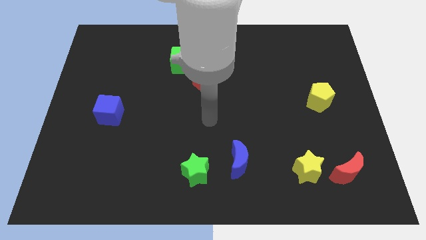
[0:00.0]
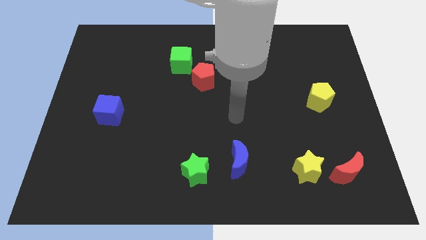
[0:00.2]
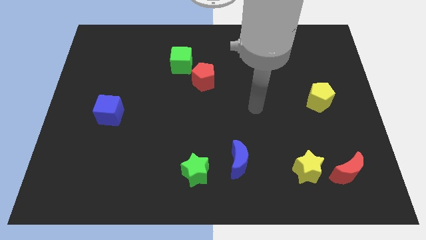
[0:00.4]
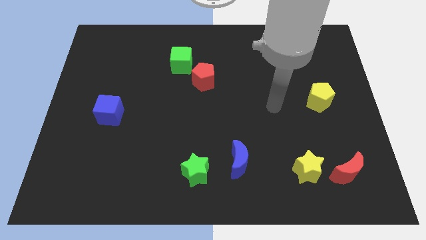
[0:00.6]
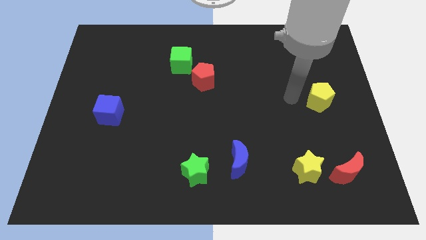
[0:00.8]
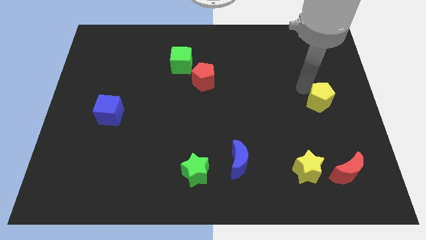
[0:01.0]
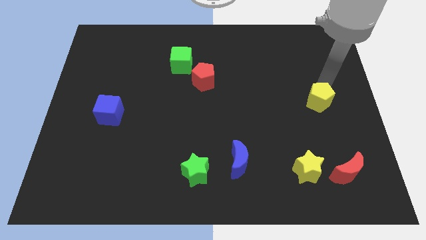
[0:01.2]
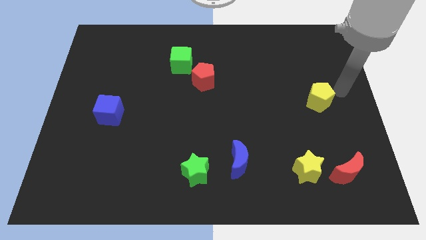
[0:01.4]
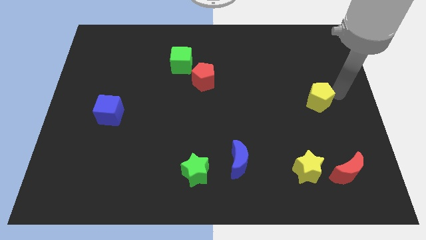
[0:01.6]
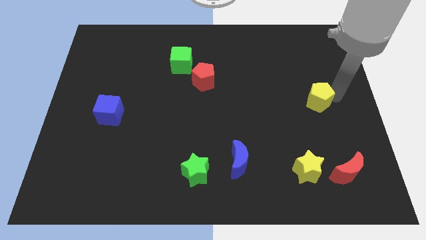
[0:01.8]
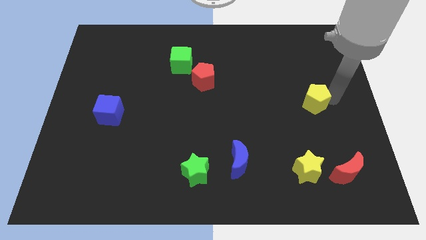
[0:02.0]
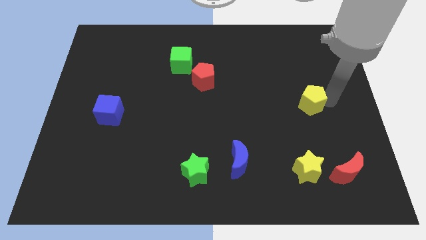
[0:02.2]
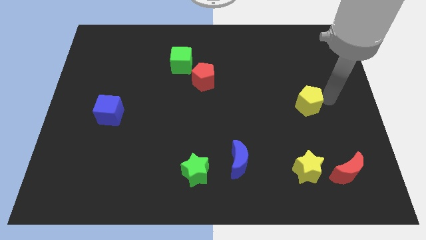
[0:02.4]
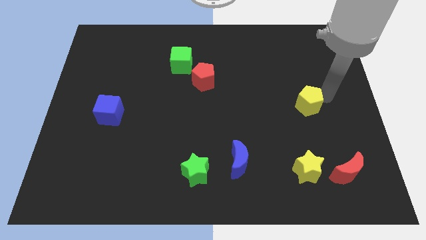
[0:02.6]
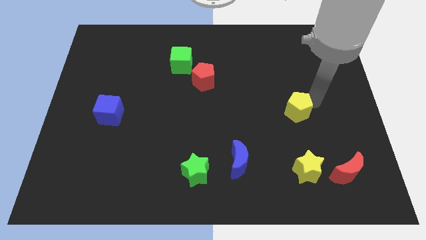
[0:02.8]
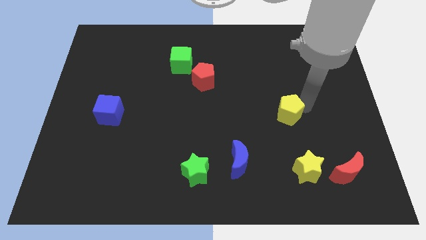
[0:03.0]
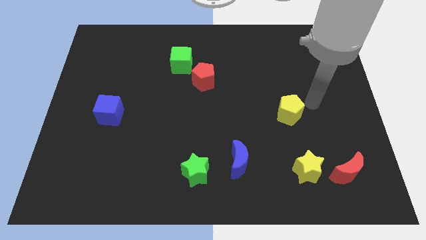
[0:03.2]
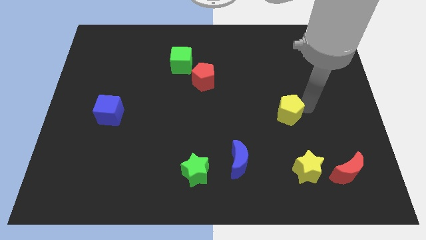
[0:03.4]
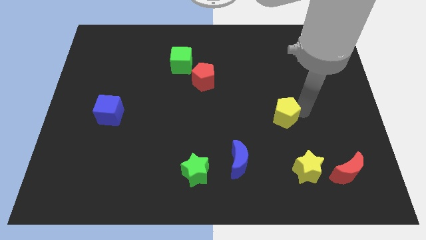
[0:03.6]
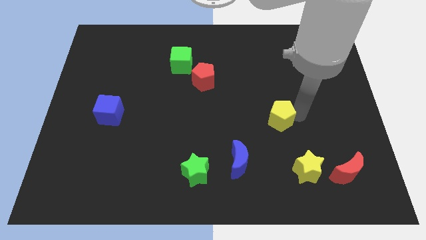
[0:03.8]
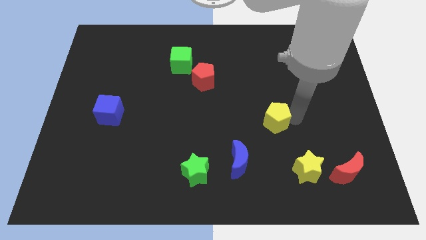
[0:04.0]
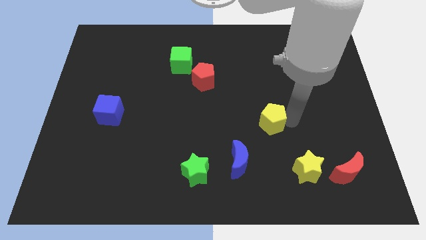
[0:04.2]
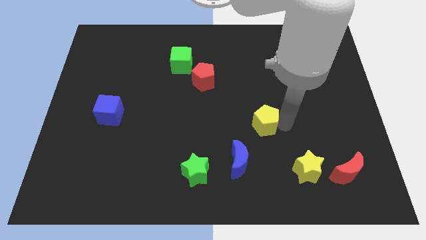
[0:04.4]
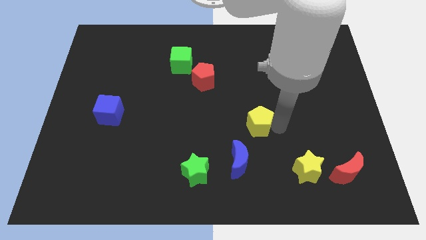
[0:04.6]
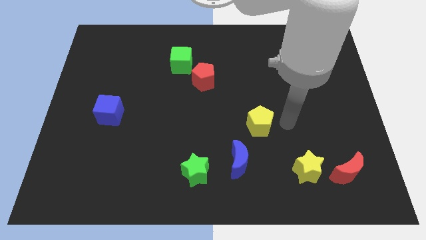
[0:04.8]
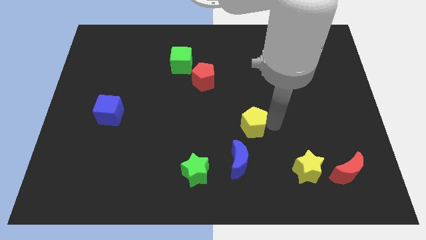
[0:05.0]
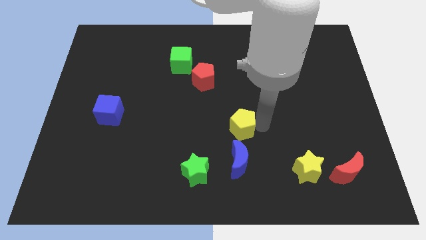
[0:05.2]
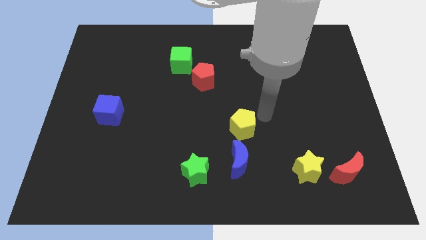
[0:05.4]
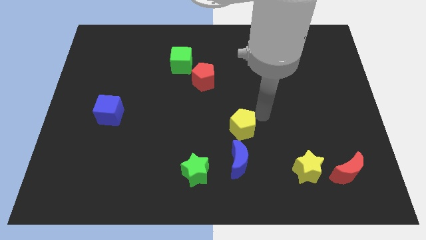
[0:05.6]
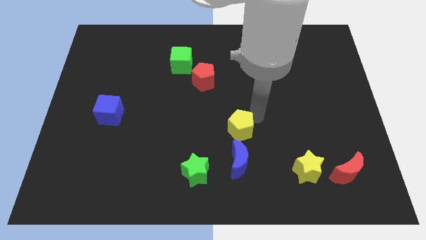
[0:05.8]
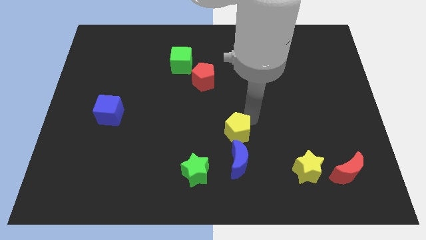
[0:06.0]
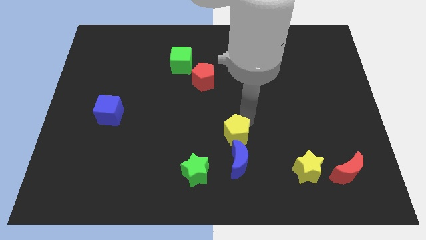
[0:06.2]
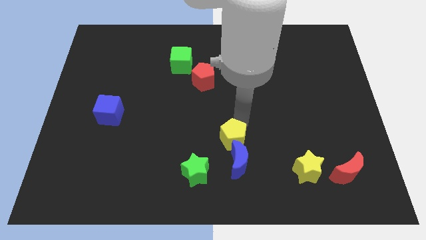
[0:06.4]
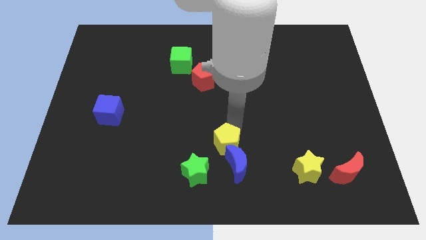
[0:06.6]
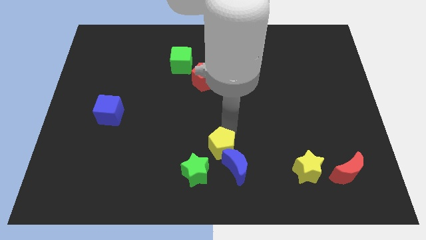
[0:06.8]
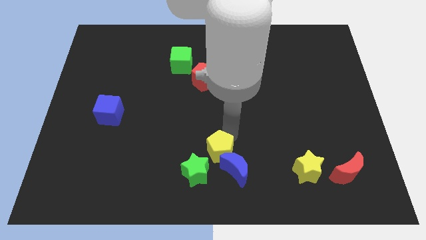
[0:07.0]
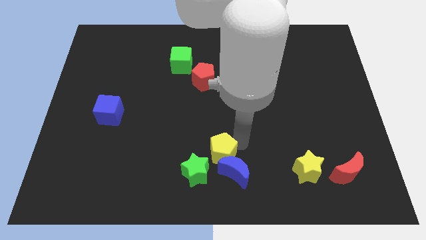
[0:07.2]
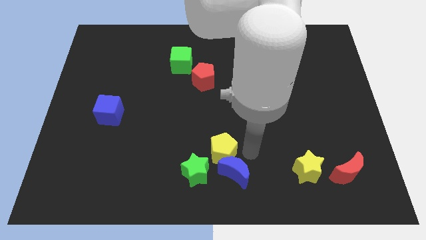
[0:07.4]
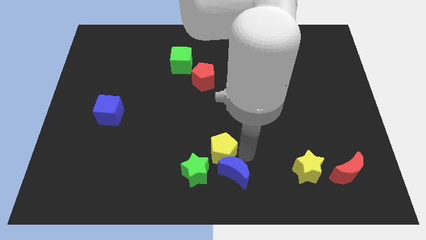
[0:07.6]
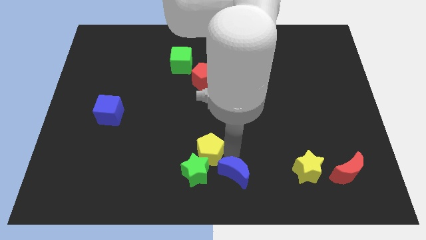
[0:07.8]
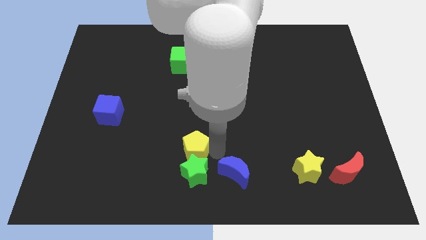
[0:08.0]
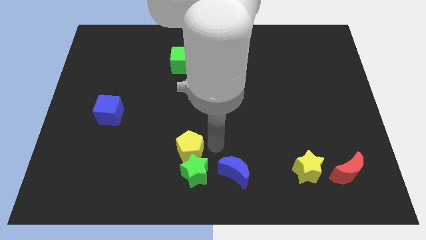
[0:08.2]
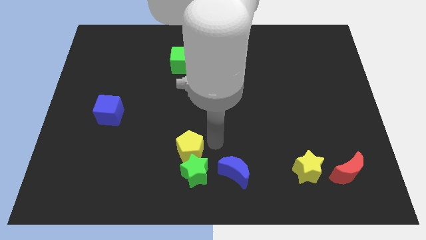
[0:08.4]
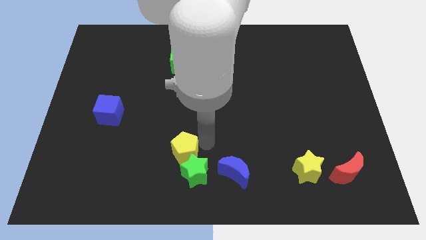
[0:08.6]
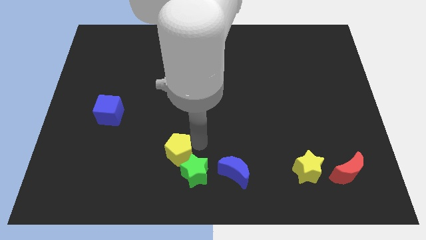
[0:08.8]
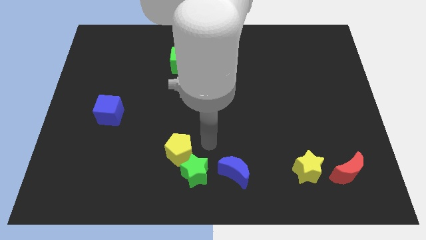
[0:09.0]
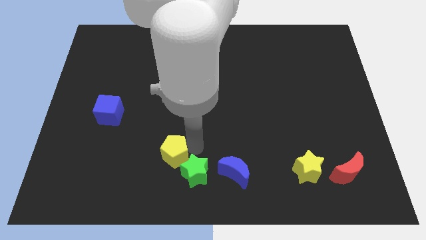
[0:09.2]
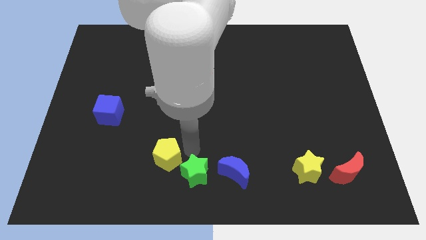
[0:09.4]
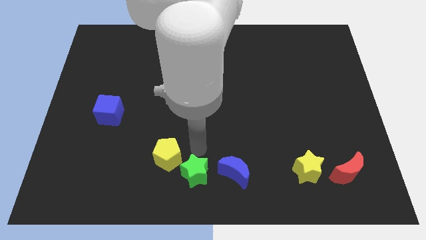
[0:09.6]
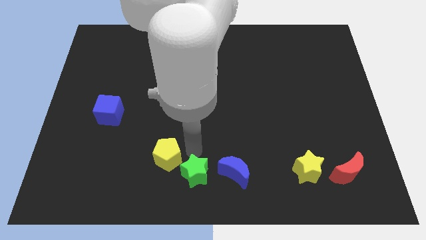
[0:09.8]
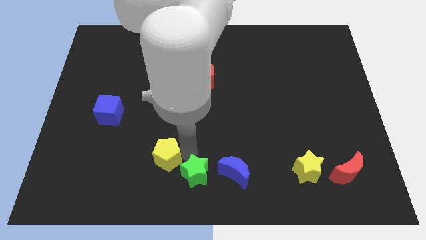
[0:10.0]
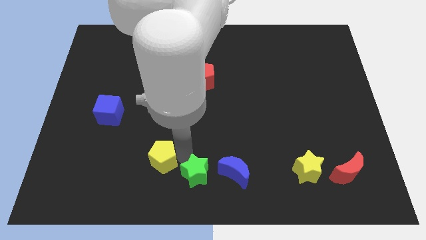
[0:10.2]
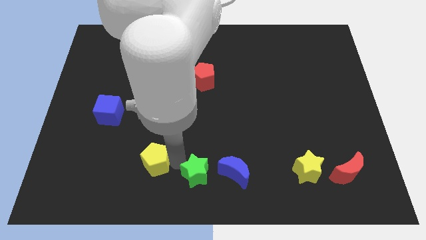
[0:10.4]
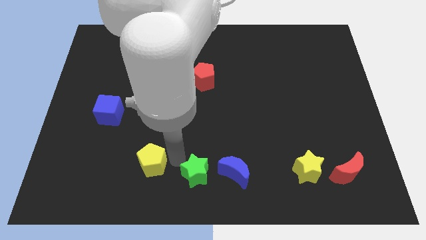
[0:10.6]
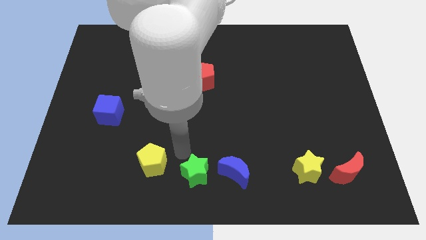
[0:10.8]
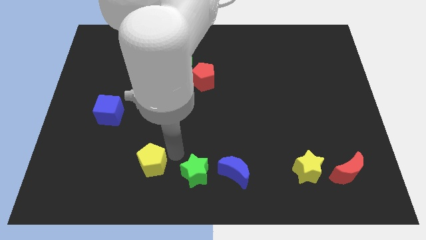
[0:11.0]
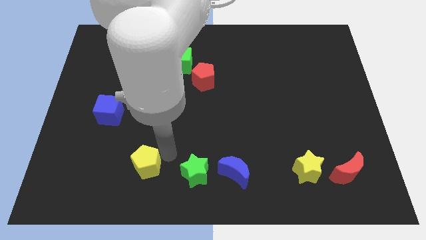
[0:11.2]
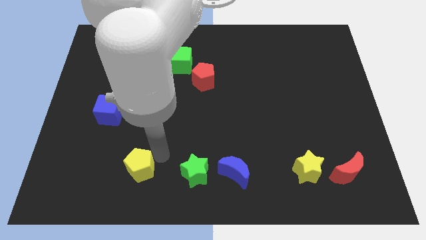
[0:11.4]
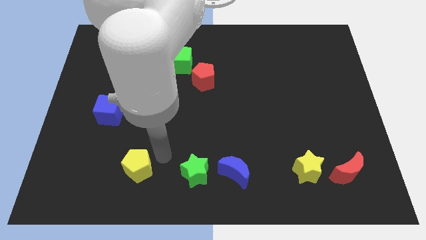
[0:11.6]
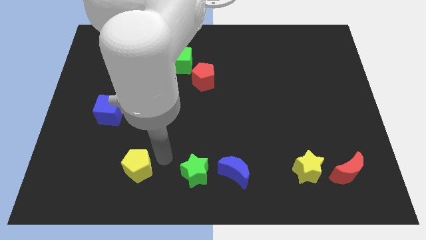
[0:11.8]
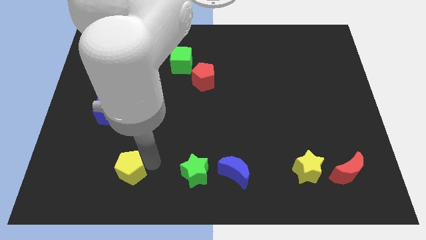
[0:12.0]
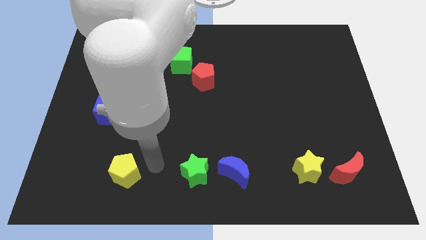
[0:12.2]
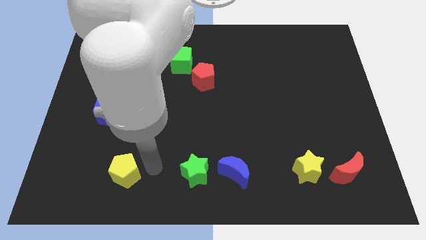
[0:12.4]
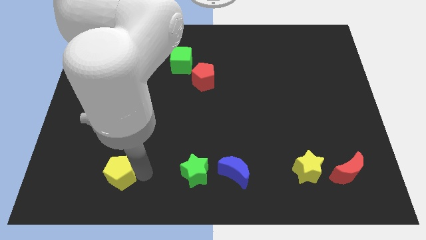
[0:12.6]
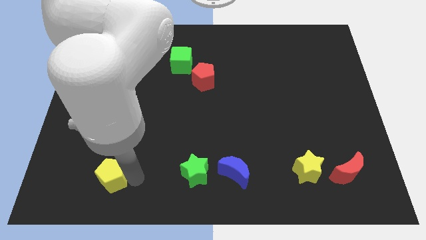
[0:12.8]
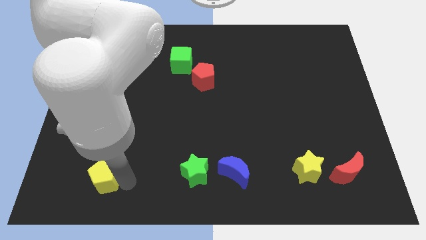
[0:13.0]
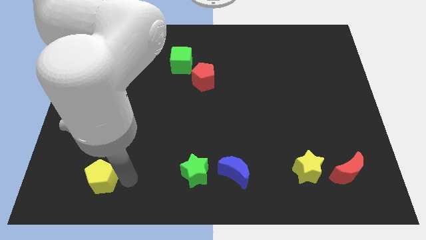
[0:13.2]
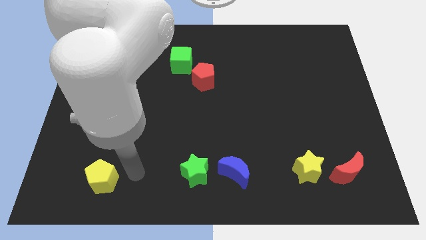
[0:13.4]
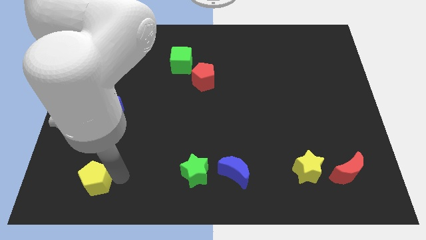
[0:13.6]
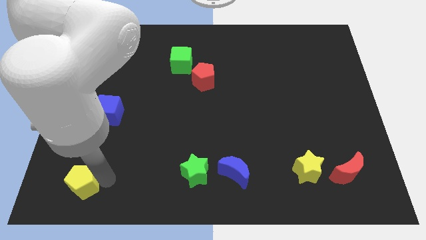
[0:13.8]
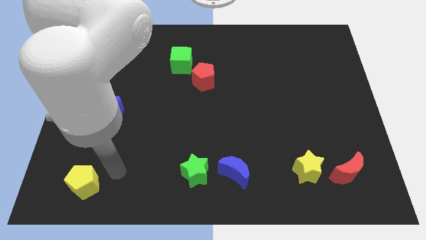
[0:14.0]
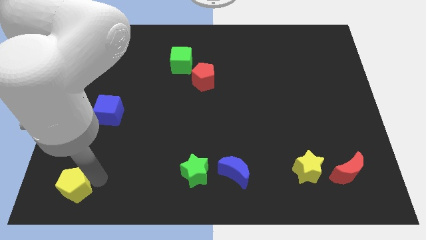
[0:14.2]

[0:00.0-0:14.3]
move the yellow pentagon to the bottom left of the board

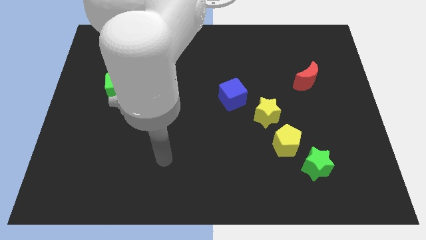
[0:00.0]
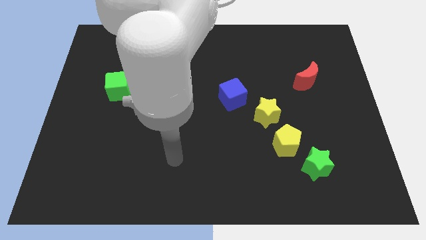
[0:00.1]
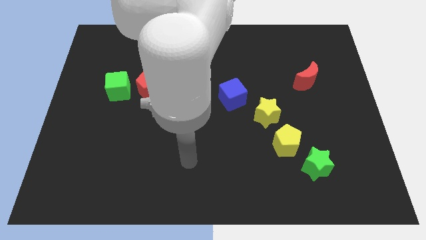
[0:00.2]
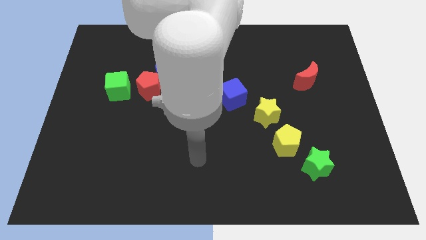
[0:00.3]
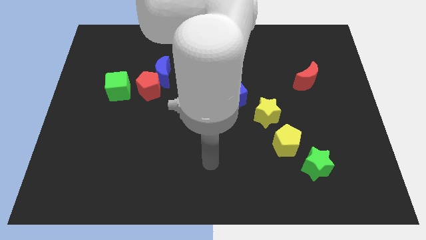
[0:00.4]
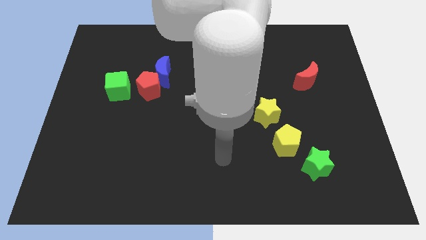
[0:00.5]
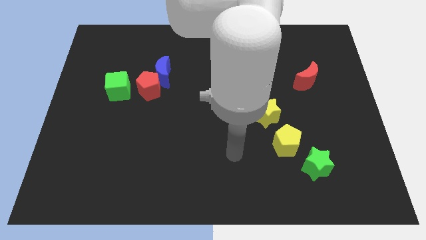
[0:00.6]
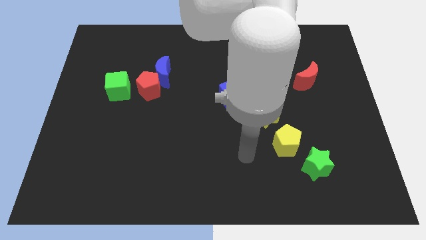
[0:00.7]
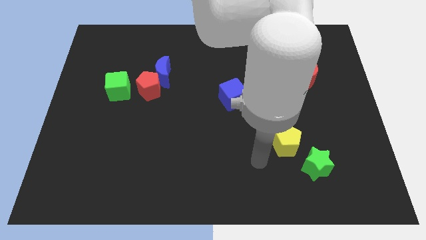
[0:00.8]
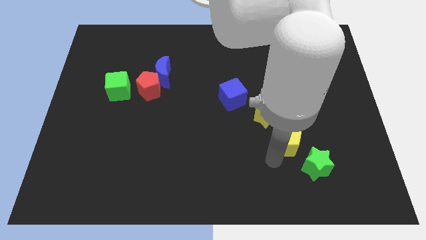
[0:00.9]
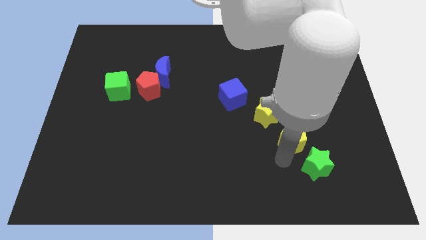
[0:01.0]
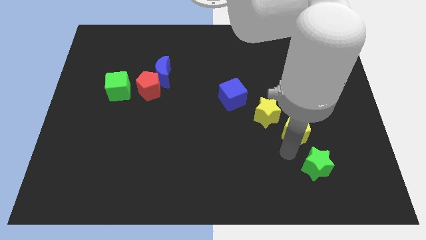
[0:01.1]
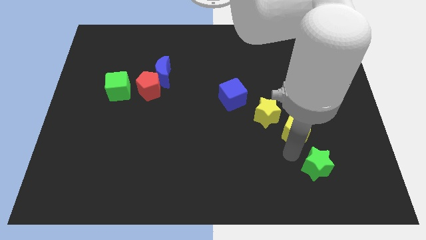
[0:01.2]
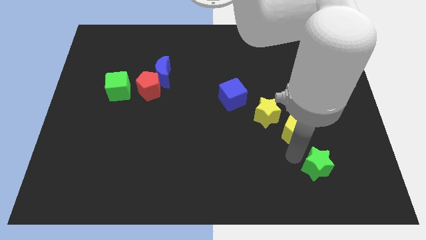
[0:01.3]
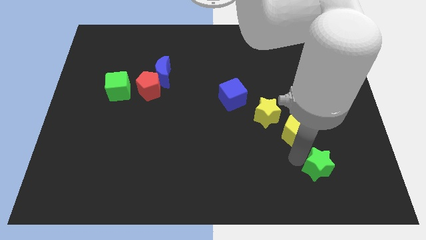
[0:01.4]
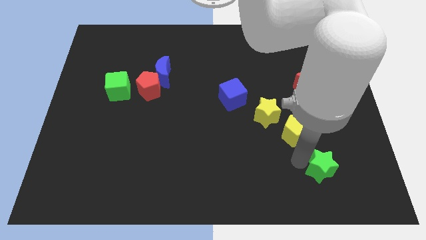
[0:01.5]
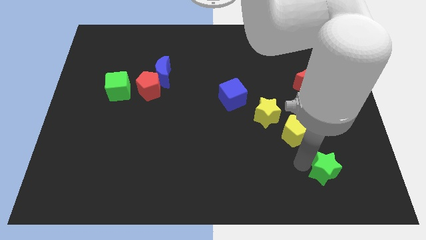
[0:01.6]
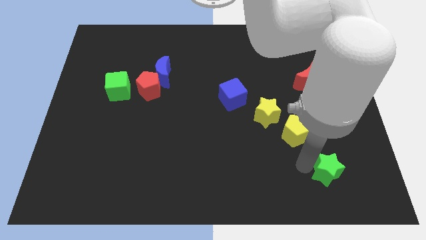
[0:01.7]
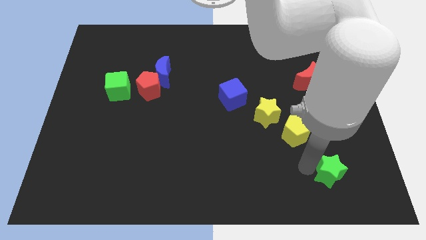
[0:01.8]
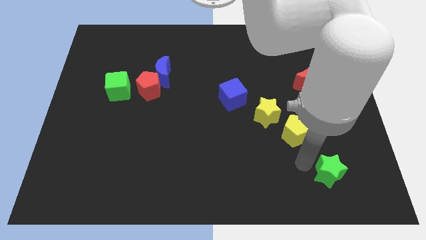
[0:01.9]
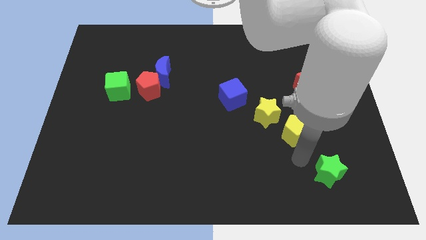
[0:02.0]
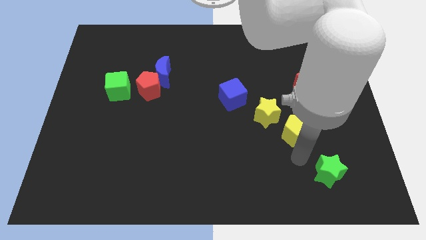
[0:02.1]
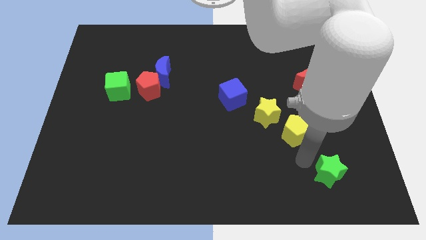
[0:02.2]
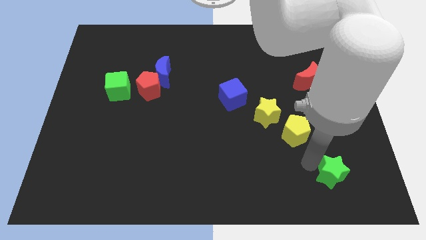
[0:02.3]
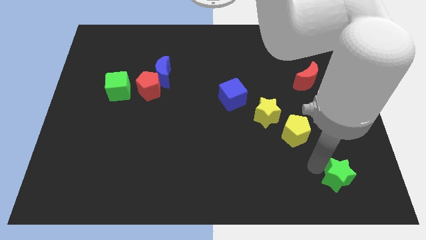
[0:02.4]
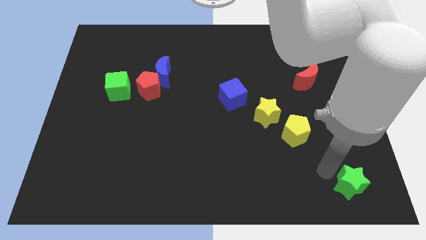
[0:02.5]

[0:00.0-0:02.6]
move the green star to the bottom right corner
